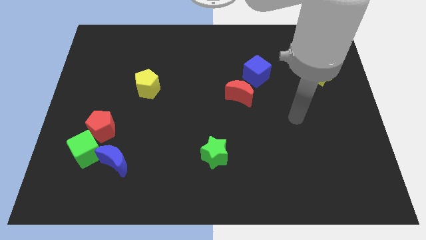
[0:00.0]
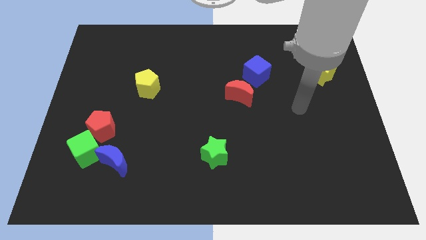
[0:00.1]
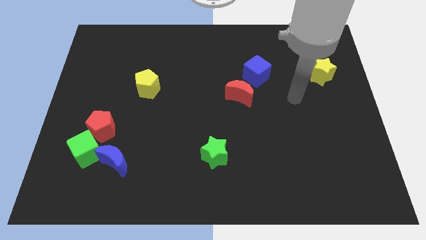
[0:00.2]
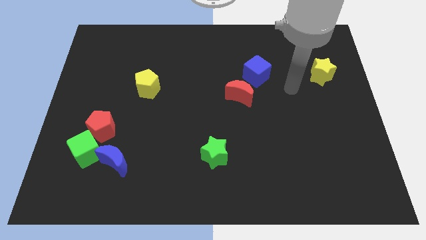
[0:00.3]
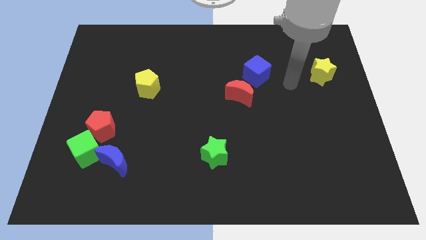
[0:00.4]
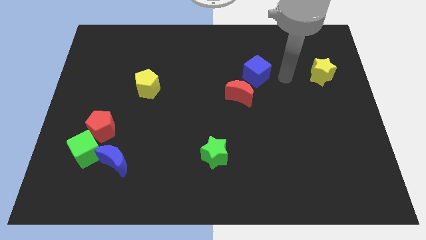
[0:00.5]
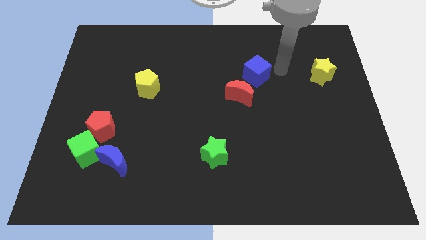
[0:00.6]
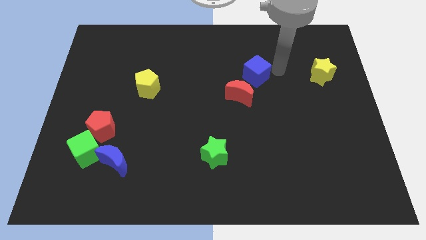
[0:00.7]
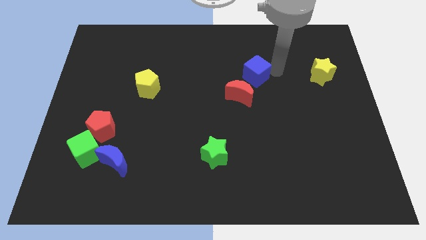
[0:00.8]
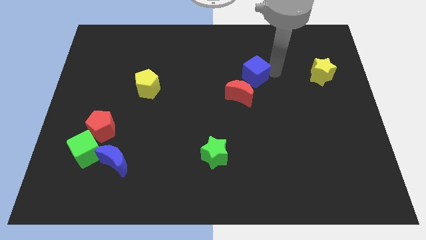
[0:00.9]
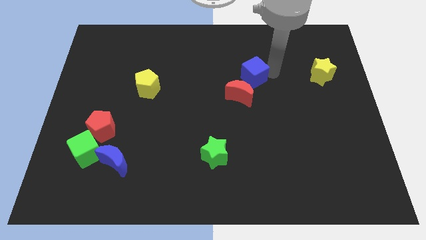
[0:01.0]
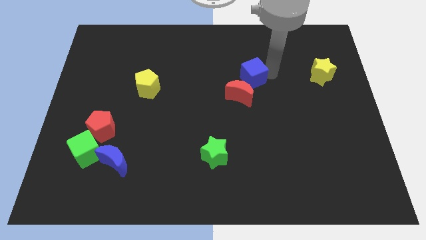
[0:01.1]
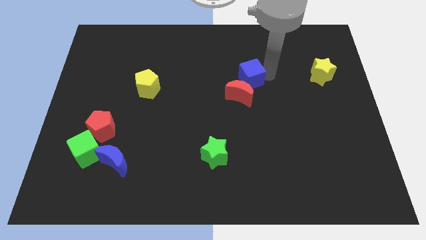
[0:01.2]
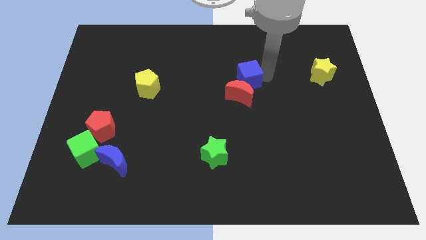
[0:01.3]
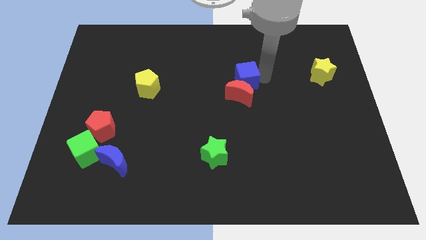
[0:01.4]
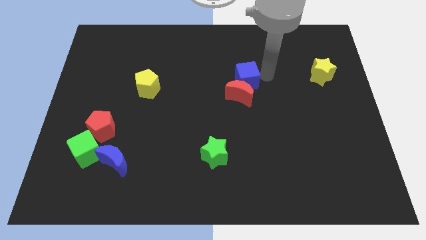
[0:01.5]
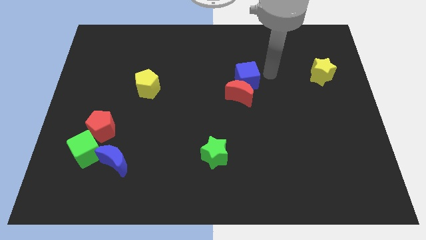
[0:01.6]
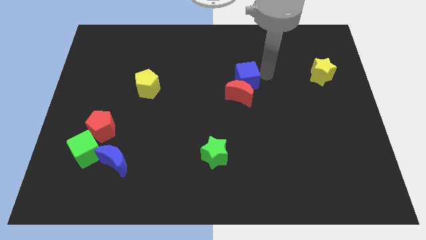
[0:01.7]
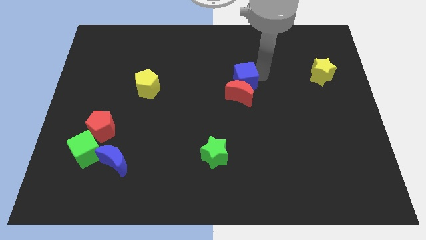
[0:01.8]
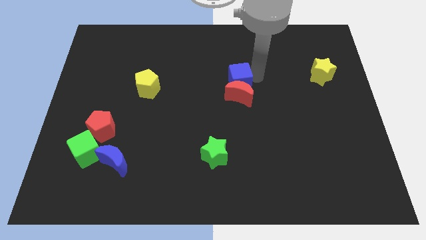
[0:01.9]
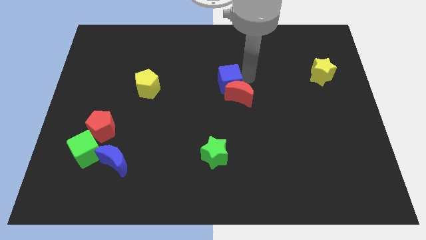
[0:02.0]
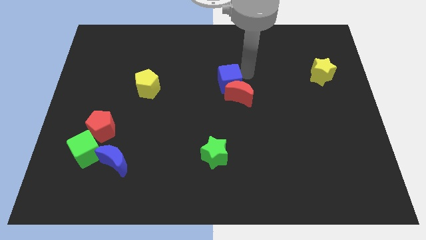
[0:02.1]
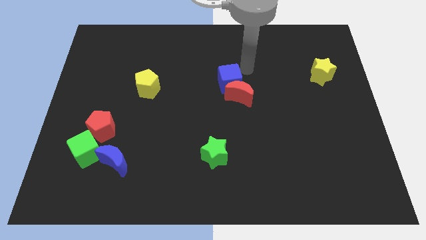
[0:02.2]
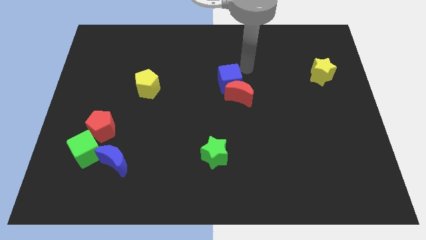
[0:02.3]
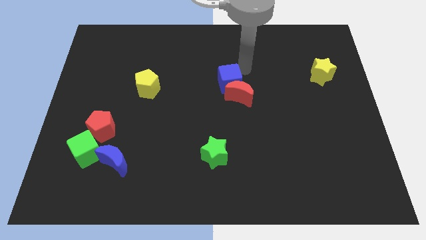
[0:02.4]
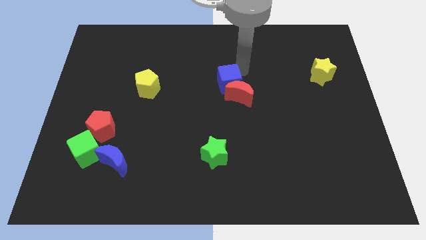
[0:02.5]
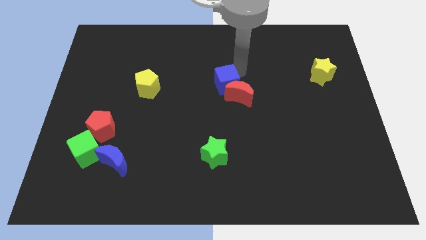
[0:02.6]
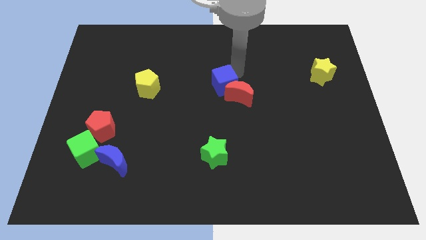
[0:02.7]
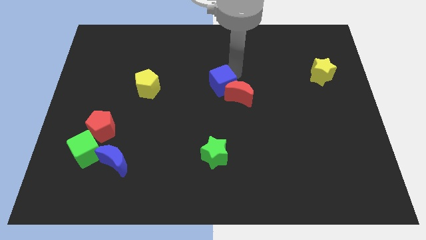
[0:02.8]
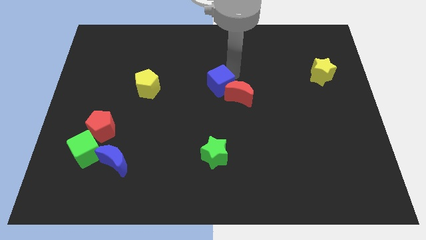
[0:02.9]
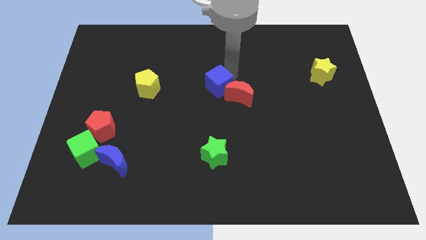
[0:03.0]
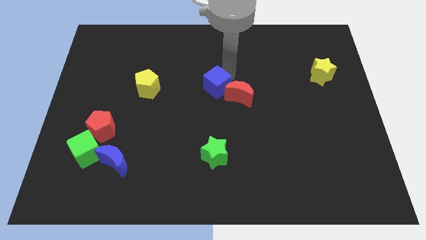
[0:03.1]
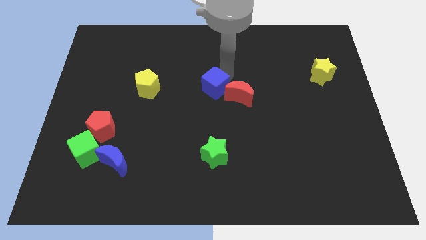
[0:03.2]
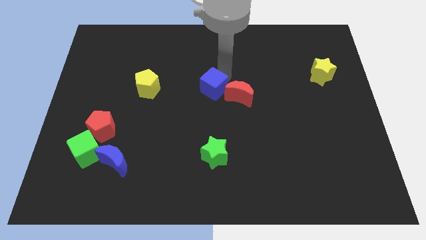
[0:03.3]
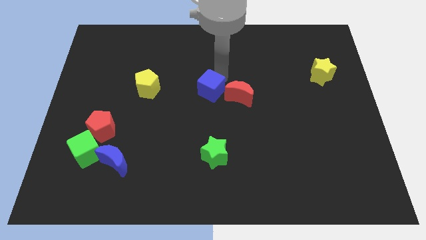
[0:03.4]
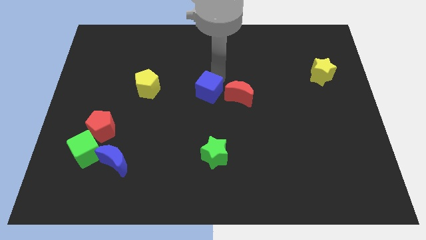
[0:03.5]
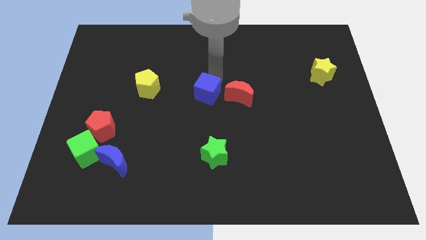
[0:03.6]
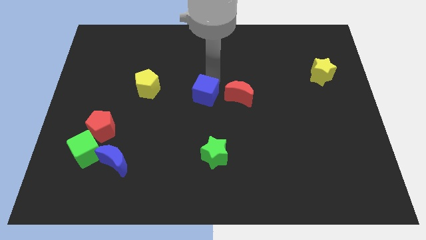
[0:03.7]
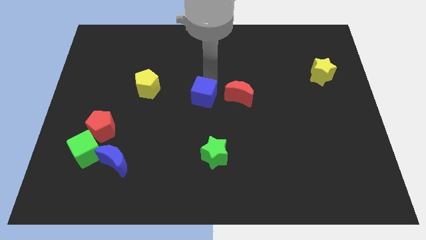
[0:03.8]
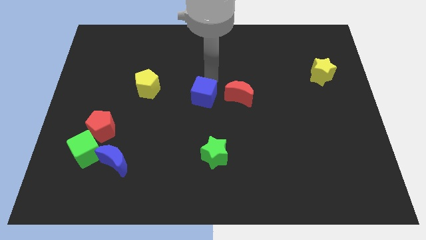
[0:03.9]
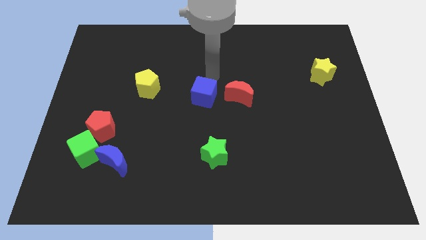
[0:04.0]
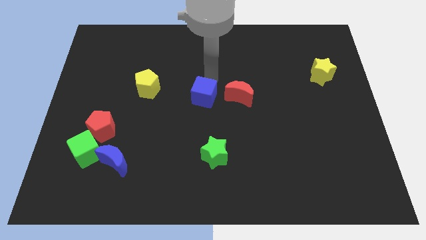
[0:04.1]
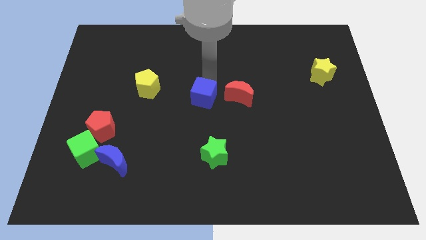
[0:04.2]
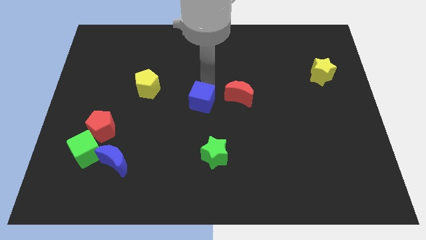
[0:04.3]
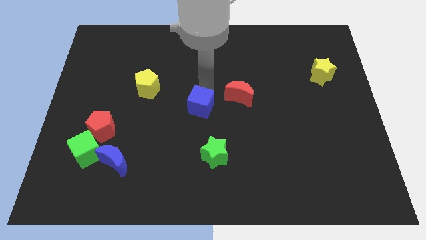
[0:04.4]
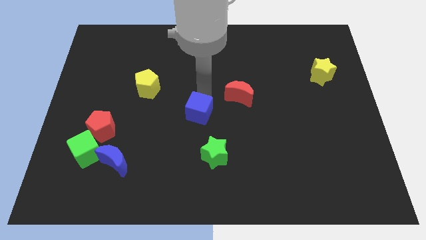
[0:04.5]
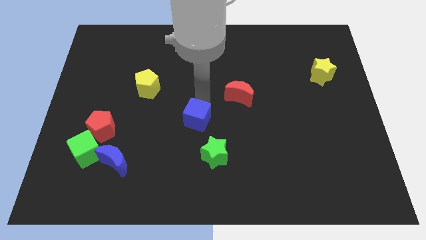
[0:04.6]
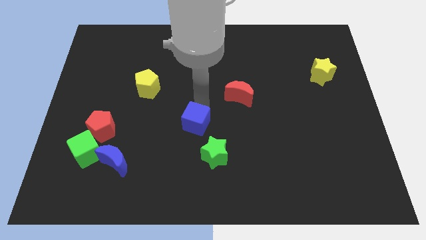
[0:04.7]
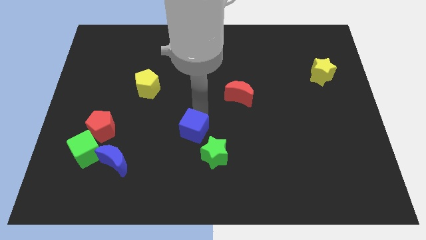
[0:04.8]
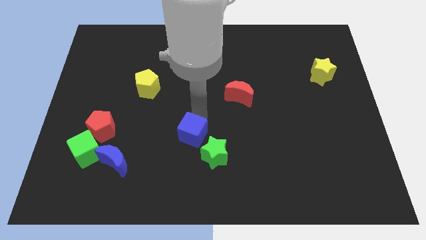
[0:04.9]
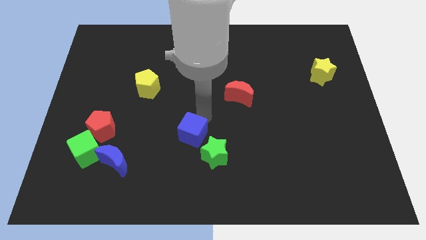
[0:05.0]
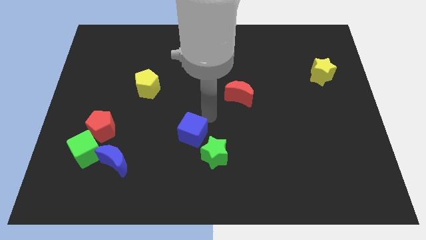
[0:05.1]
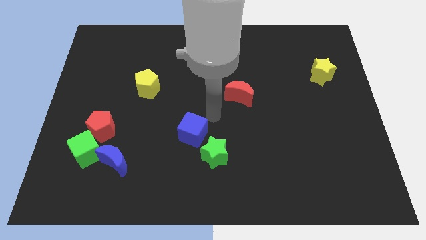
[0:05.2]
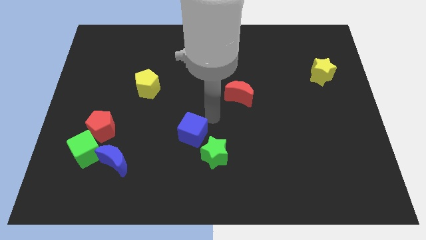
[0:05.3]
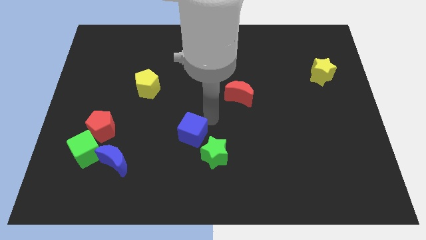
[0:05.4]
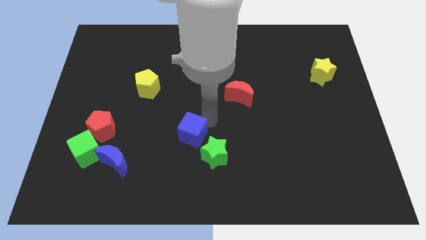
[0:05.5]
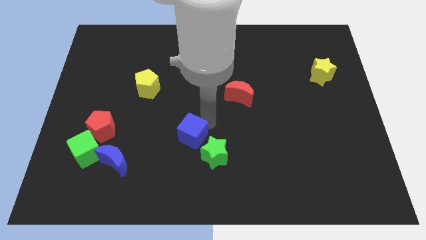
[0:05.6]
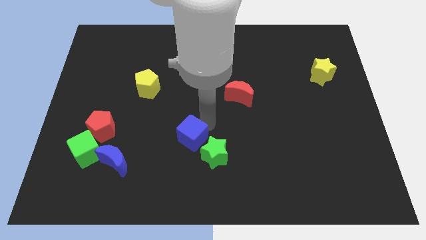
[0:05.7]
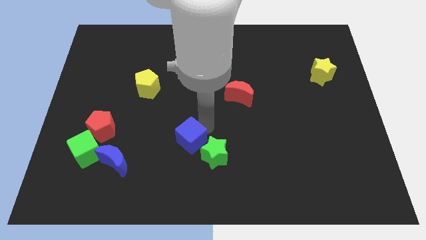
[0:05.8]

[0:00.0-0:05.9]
move the blue cube to the left of the green star

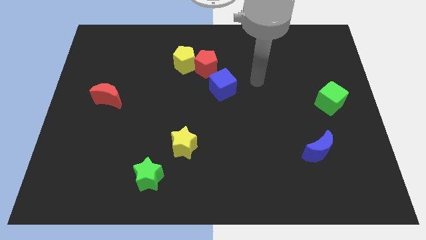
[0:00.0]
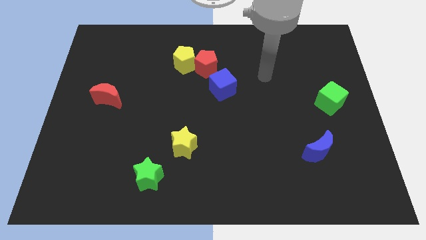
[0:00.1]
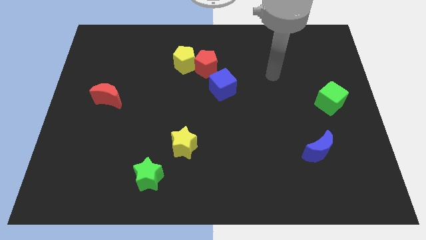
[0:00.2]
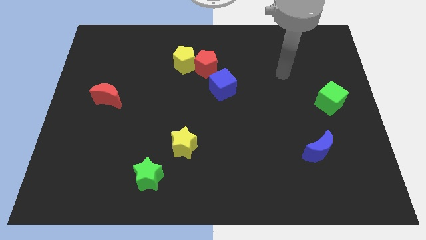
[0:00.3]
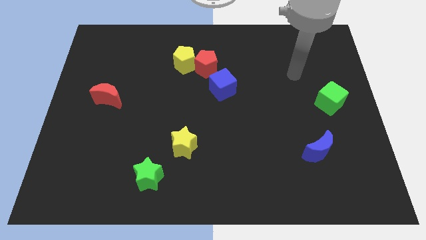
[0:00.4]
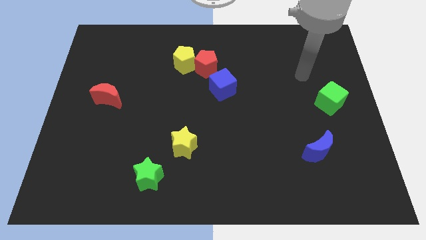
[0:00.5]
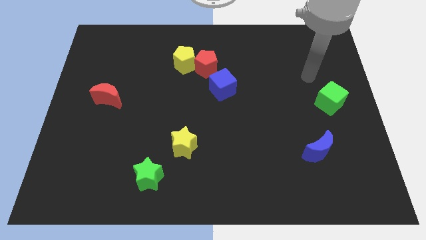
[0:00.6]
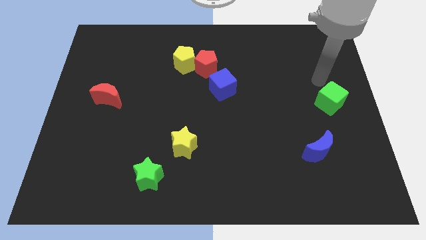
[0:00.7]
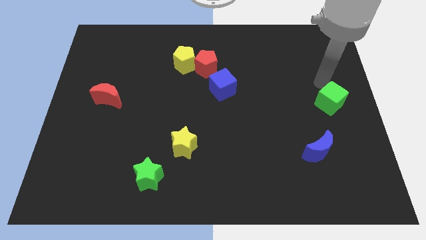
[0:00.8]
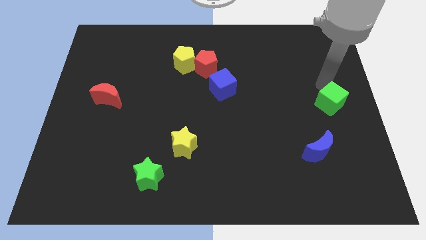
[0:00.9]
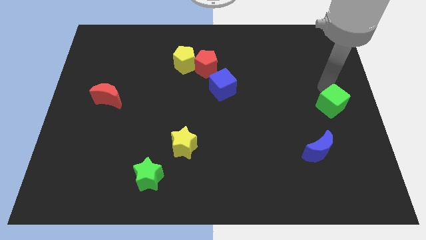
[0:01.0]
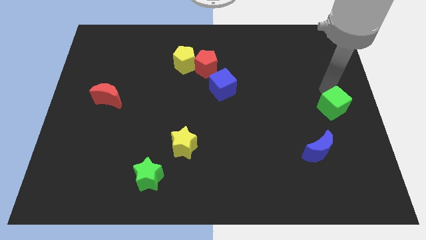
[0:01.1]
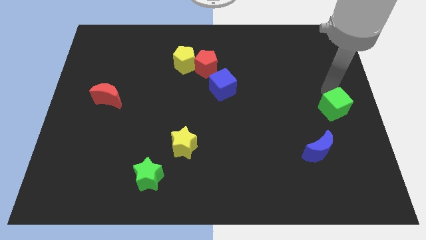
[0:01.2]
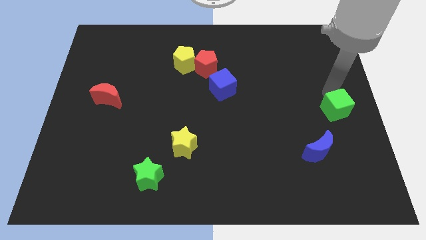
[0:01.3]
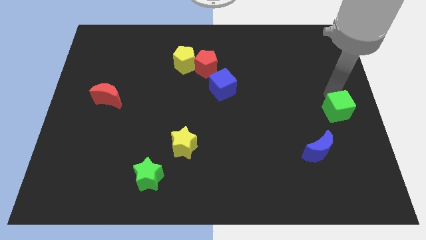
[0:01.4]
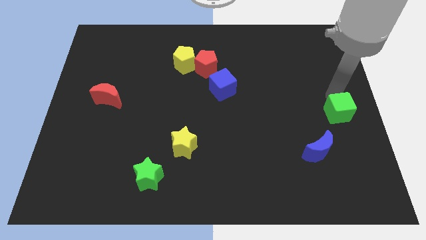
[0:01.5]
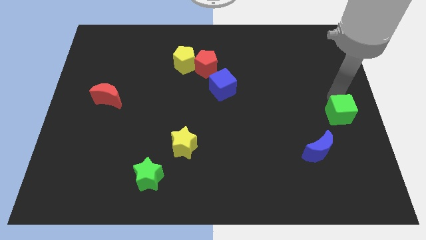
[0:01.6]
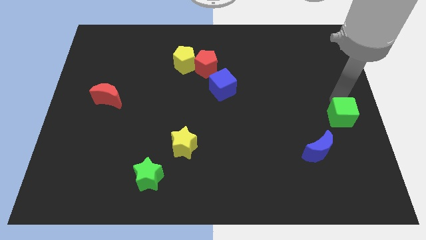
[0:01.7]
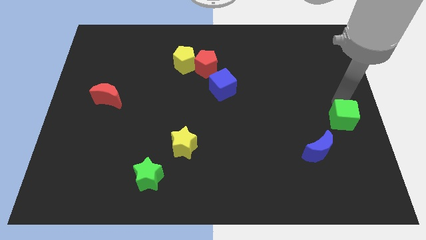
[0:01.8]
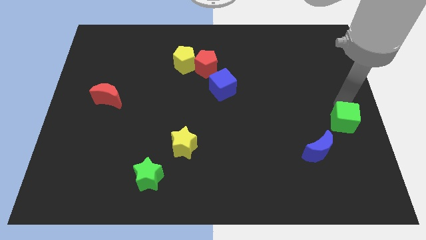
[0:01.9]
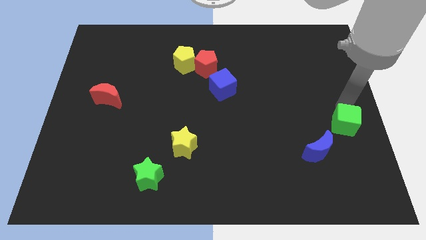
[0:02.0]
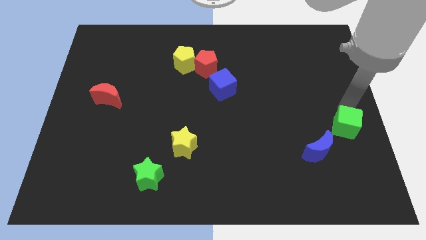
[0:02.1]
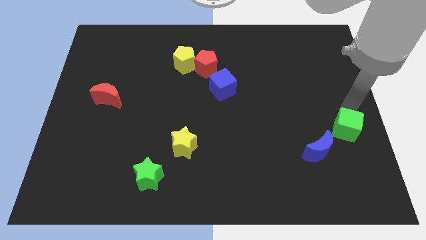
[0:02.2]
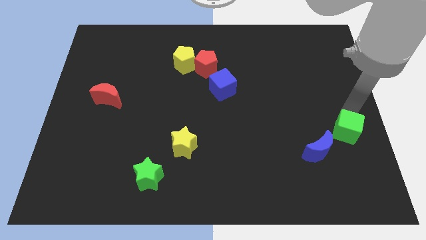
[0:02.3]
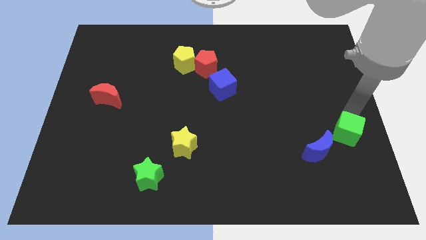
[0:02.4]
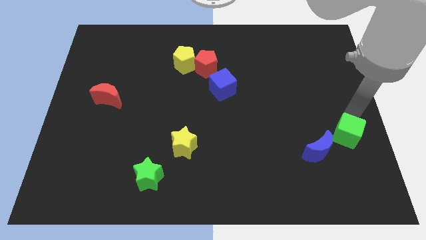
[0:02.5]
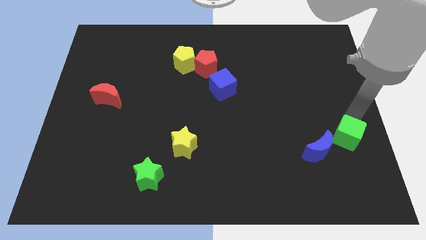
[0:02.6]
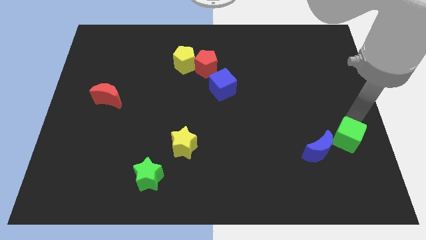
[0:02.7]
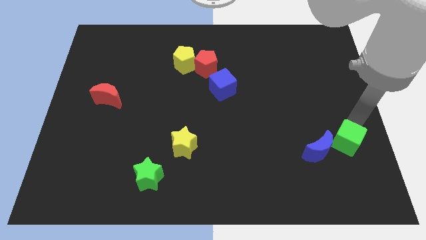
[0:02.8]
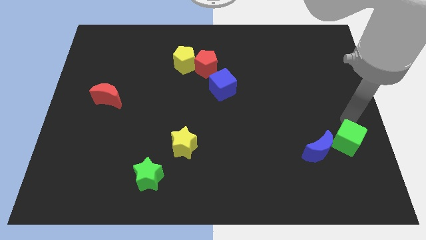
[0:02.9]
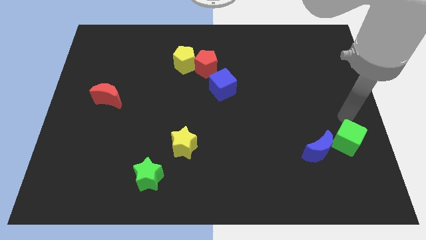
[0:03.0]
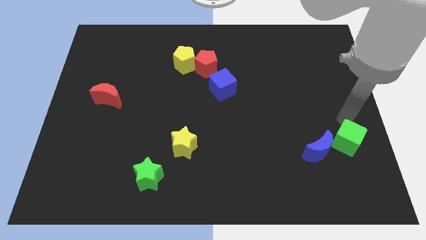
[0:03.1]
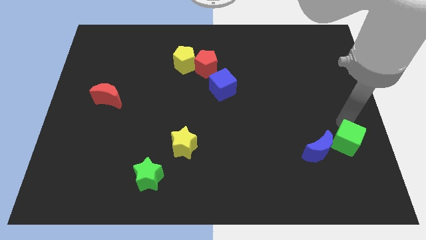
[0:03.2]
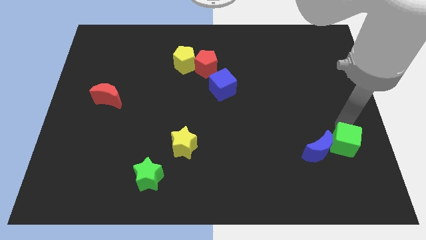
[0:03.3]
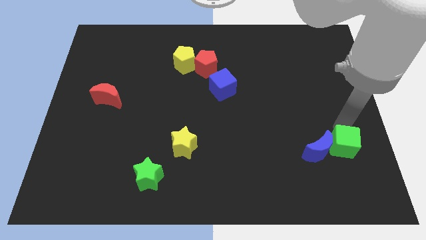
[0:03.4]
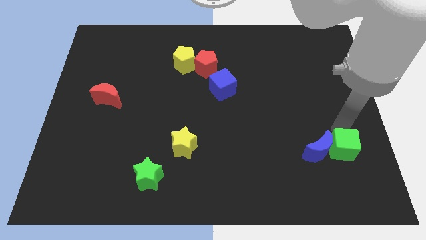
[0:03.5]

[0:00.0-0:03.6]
put the green cube diagonally down and to the right of the blue moon
